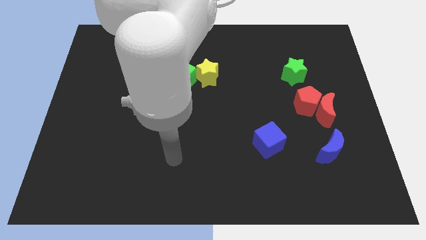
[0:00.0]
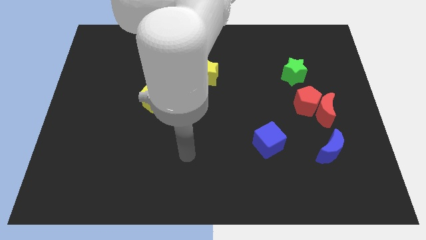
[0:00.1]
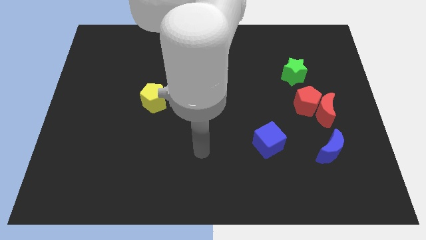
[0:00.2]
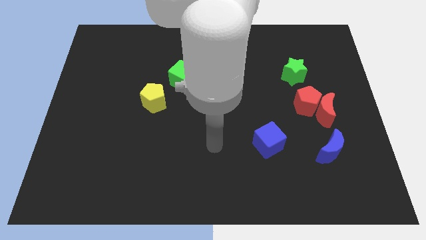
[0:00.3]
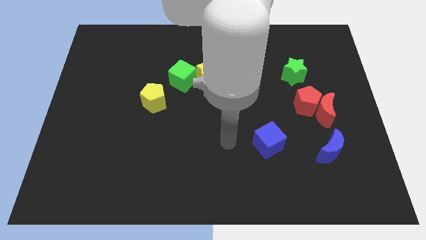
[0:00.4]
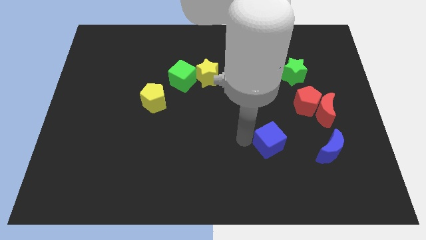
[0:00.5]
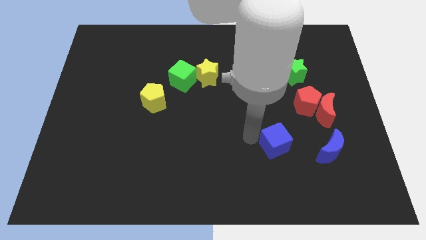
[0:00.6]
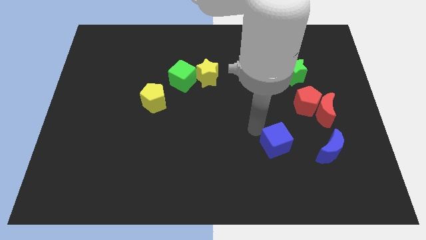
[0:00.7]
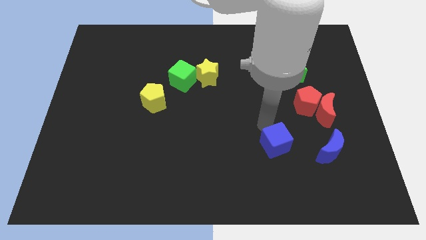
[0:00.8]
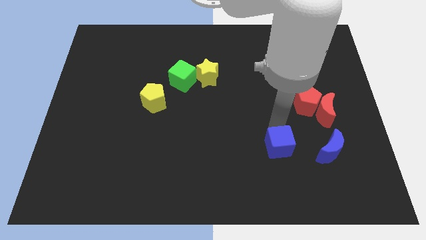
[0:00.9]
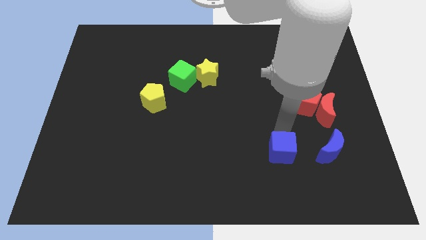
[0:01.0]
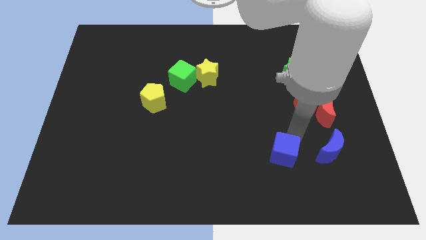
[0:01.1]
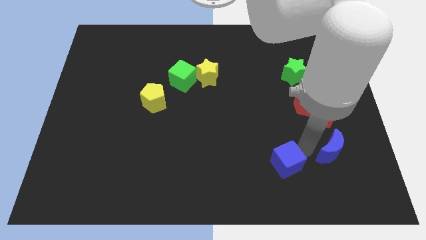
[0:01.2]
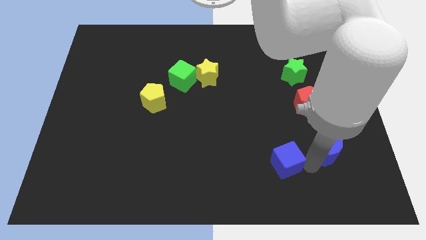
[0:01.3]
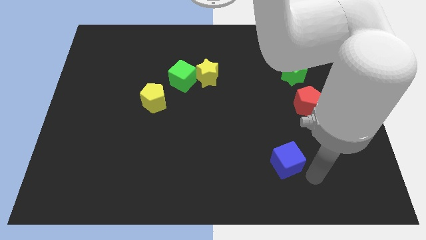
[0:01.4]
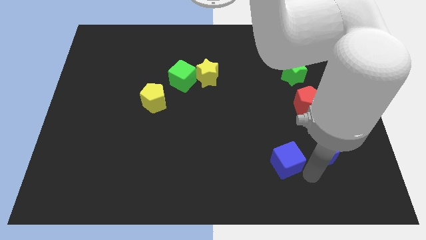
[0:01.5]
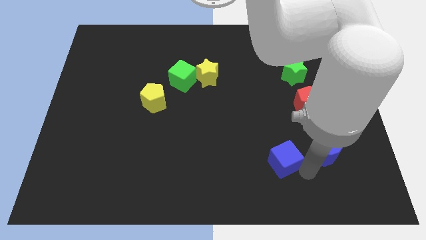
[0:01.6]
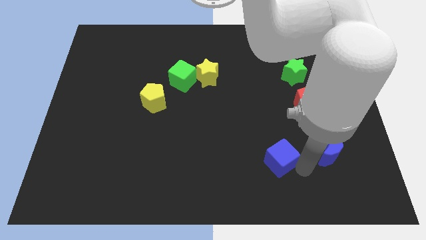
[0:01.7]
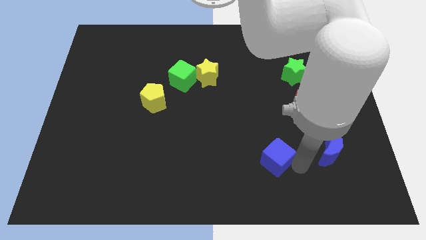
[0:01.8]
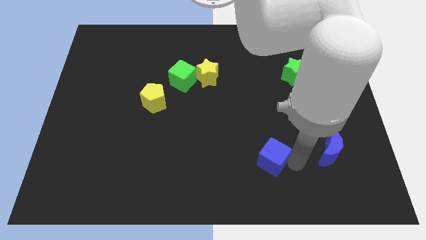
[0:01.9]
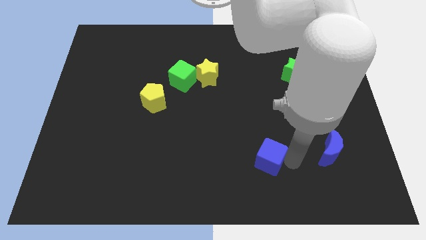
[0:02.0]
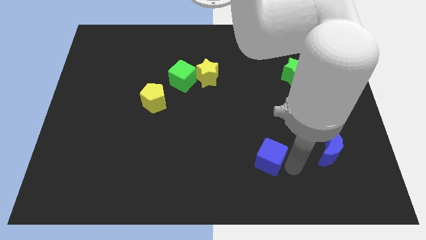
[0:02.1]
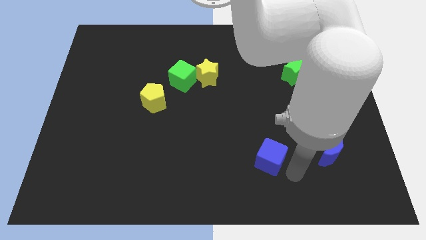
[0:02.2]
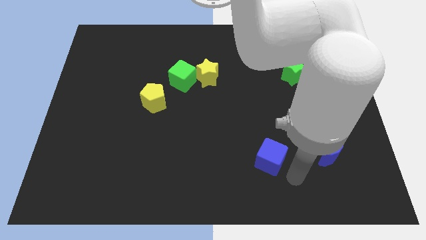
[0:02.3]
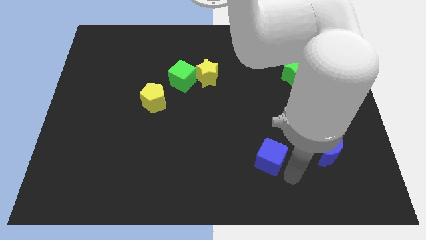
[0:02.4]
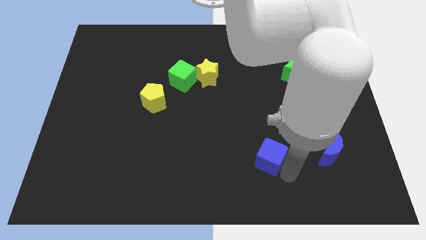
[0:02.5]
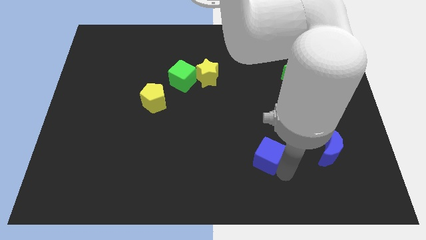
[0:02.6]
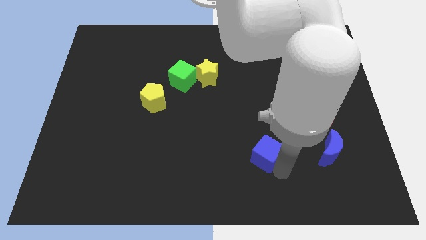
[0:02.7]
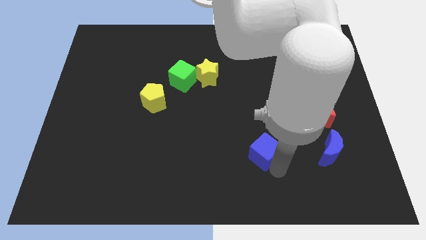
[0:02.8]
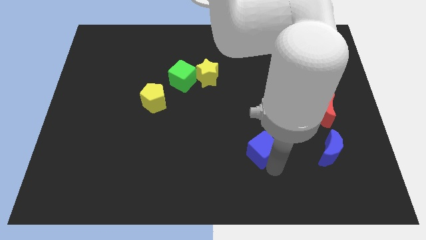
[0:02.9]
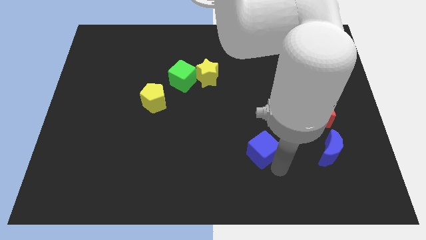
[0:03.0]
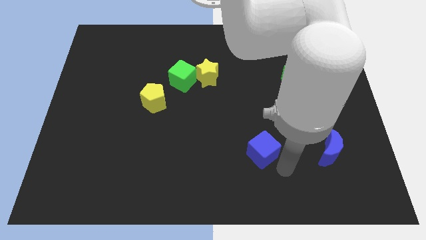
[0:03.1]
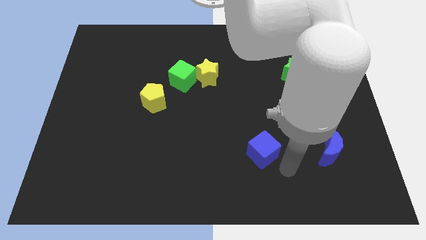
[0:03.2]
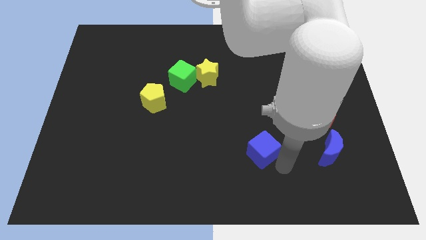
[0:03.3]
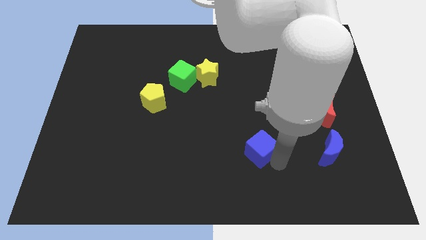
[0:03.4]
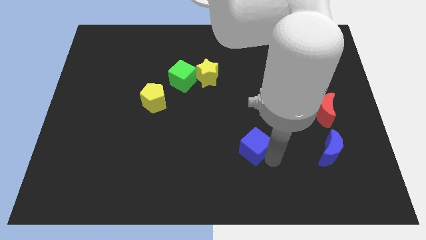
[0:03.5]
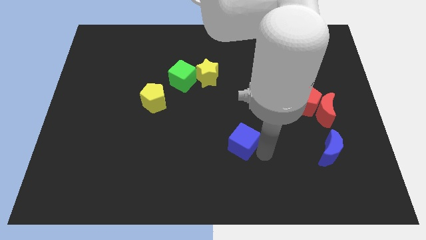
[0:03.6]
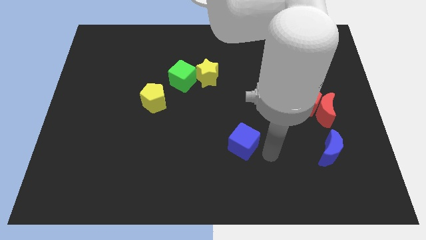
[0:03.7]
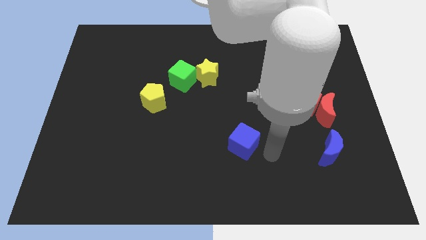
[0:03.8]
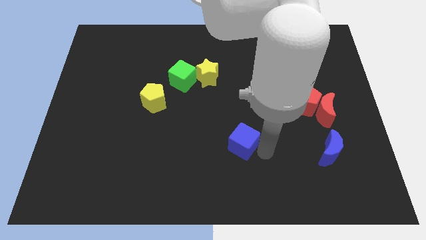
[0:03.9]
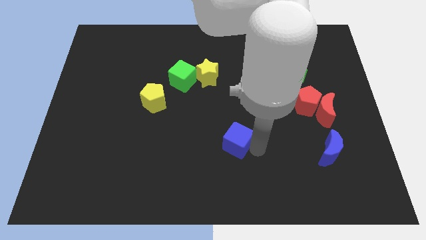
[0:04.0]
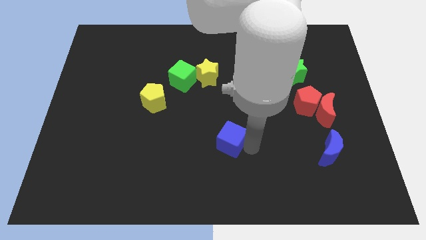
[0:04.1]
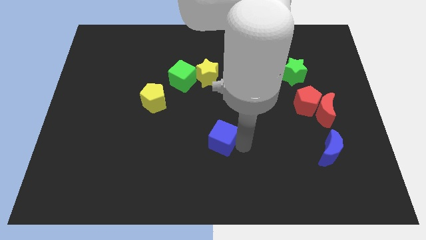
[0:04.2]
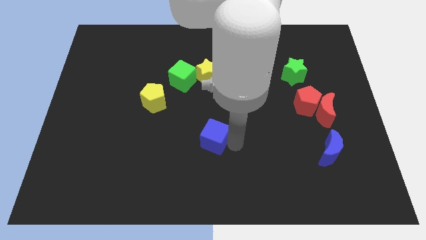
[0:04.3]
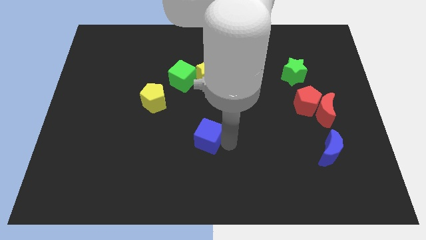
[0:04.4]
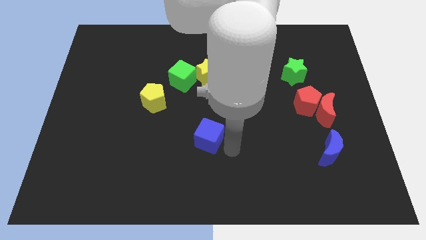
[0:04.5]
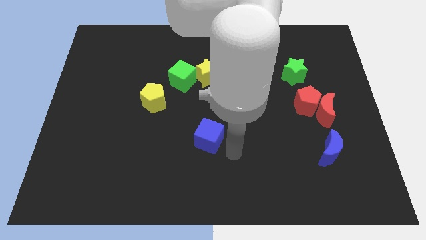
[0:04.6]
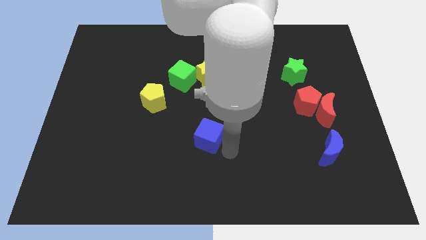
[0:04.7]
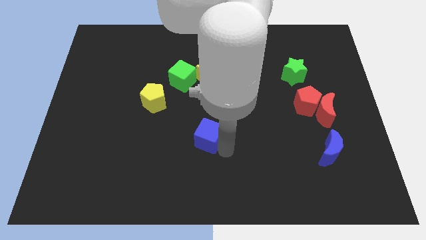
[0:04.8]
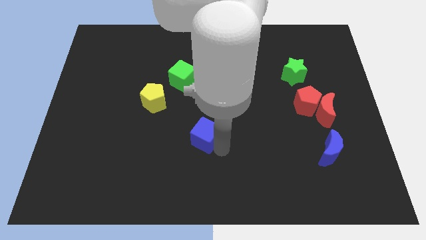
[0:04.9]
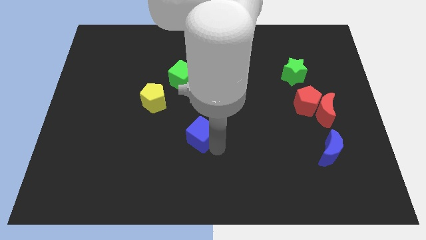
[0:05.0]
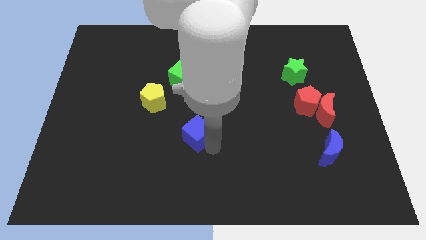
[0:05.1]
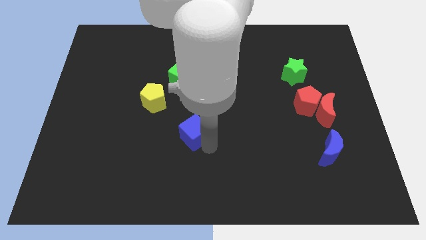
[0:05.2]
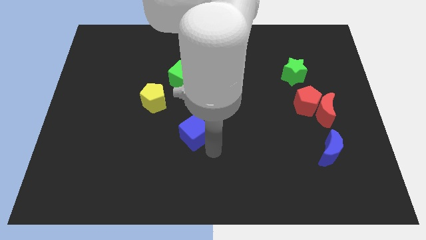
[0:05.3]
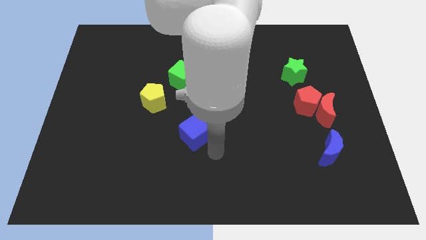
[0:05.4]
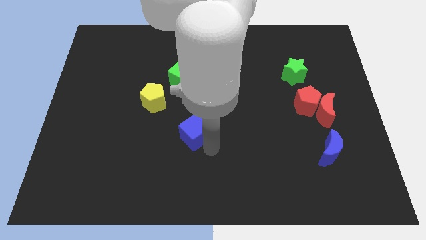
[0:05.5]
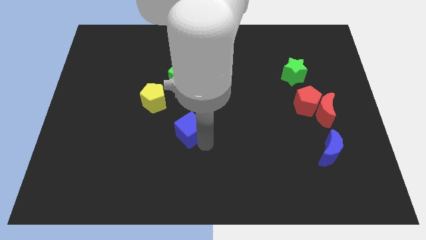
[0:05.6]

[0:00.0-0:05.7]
push the blue cube diagonally down and to the right of the yellow pentagon

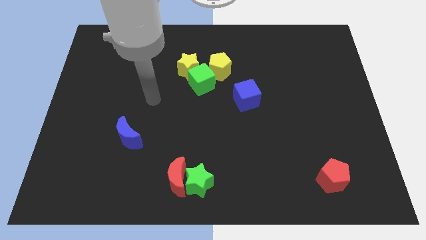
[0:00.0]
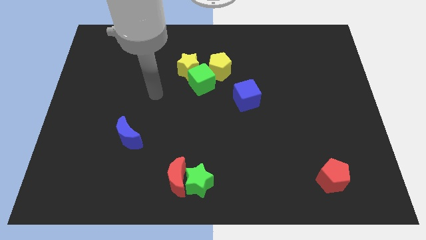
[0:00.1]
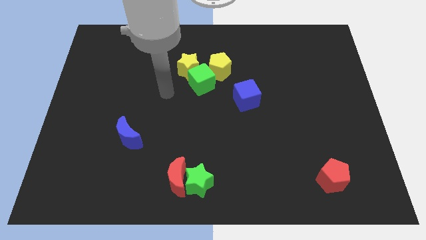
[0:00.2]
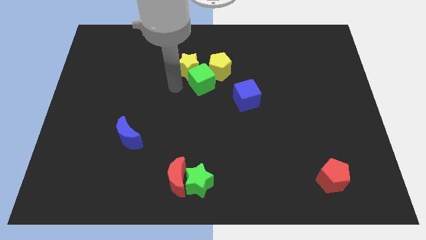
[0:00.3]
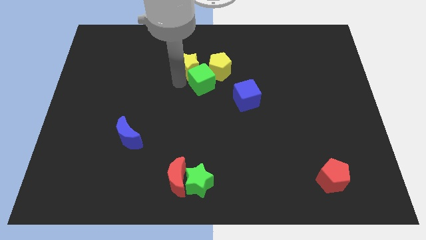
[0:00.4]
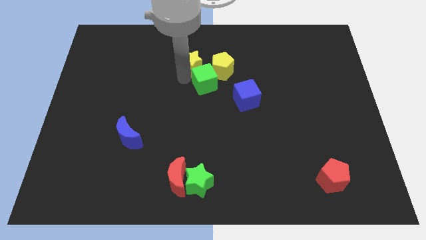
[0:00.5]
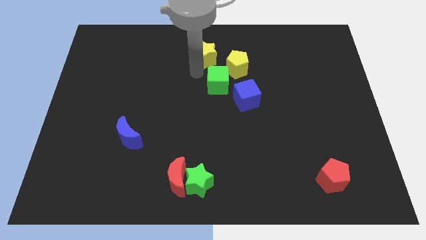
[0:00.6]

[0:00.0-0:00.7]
slide the yellow pentagon to the top of the blue cube

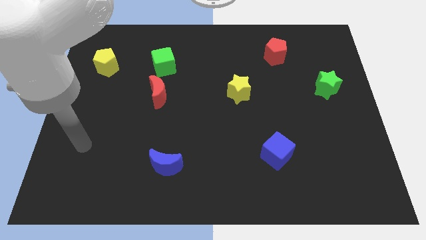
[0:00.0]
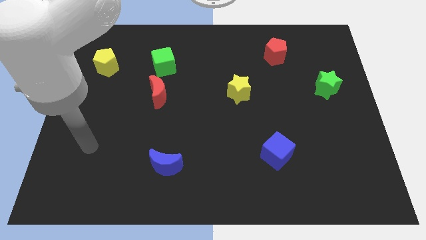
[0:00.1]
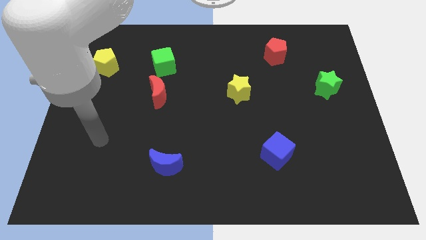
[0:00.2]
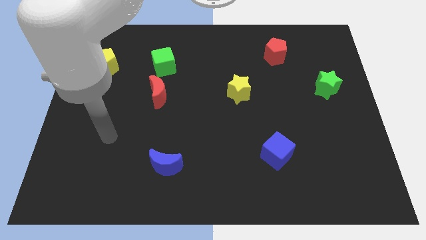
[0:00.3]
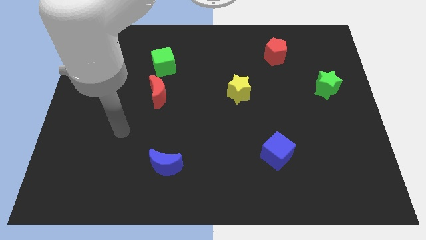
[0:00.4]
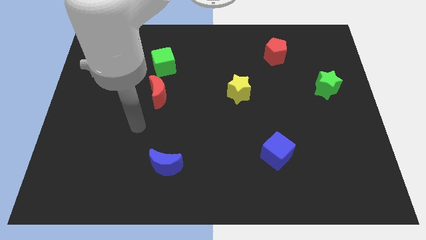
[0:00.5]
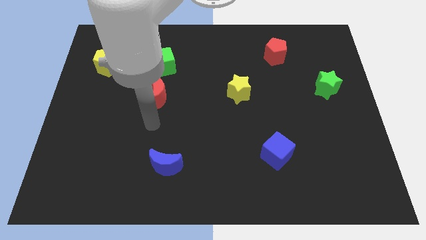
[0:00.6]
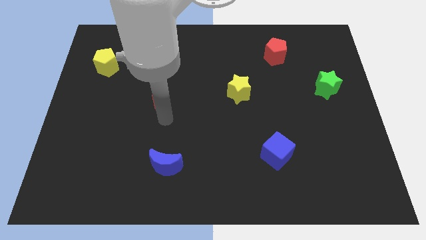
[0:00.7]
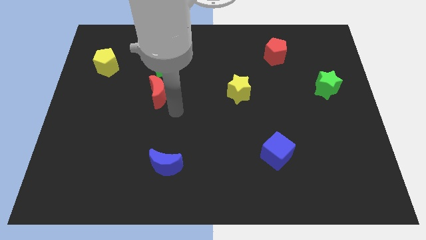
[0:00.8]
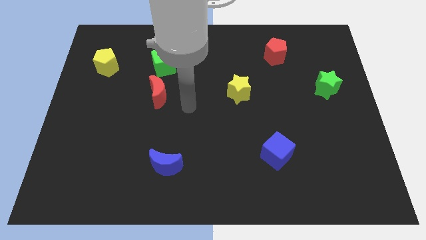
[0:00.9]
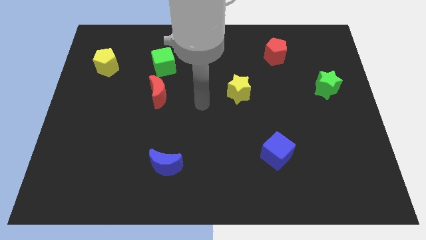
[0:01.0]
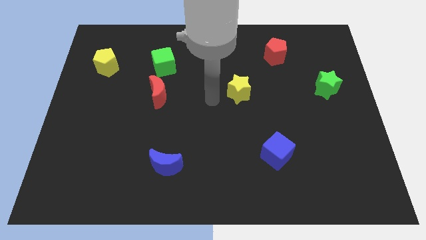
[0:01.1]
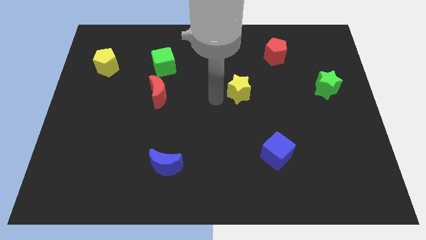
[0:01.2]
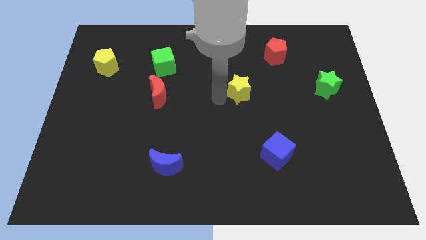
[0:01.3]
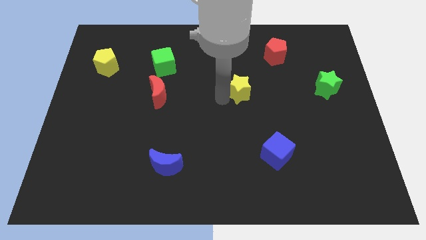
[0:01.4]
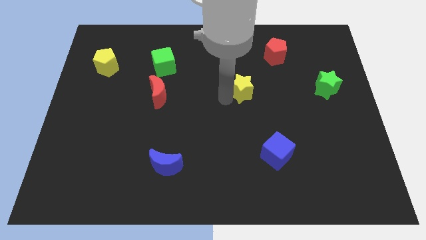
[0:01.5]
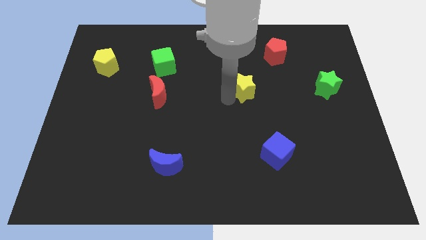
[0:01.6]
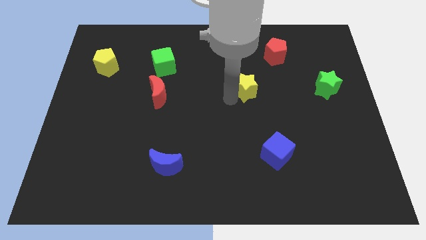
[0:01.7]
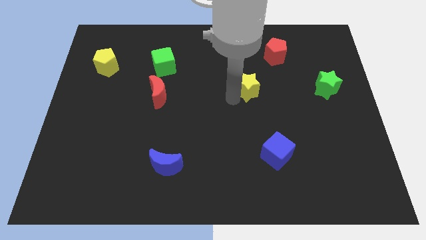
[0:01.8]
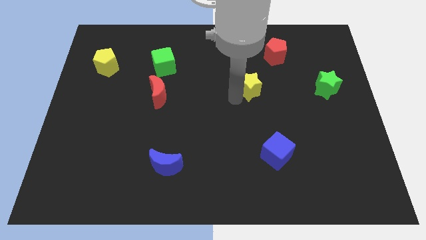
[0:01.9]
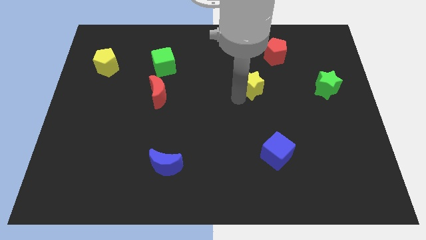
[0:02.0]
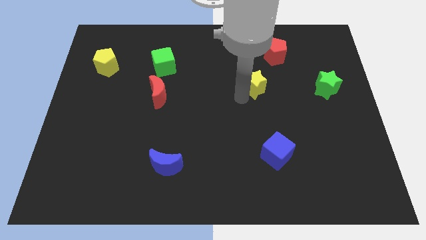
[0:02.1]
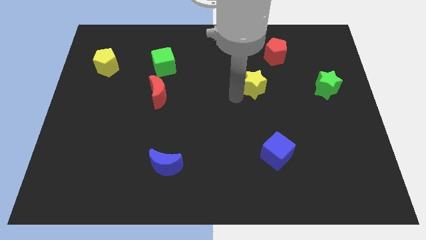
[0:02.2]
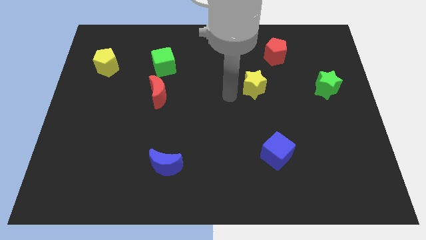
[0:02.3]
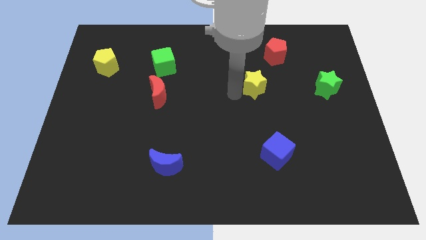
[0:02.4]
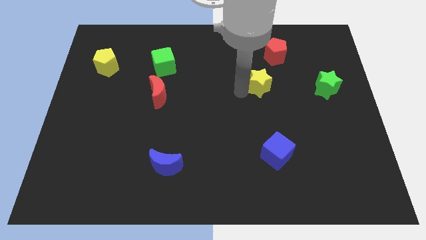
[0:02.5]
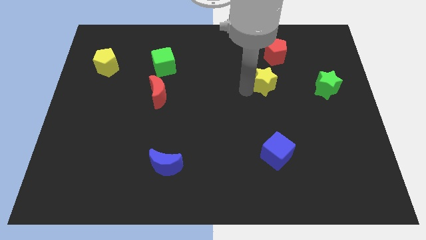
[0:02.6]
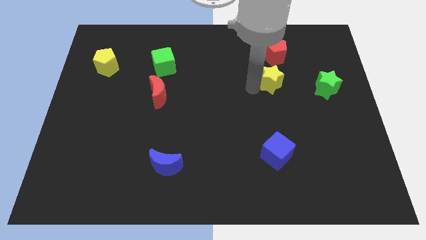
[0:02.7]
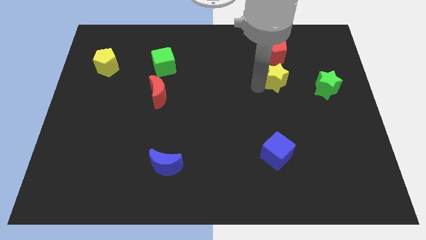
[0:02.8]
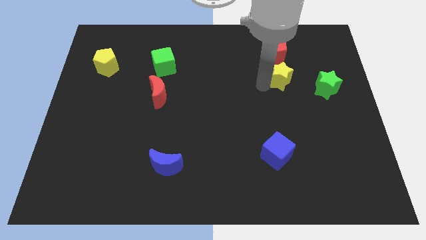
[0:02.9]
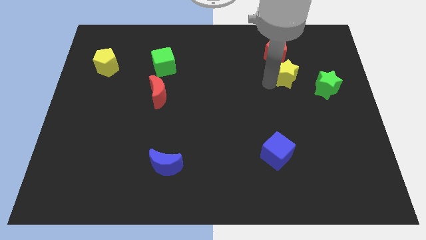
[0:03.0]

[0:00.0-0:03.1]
slide the yellow star diagonally up and to the left of the green star
